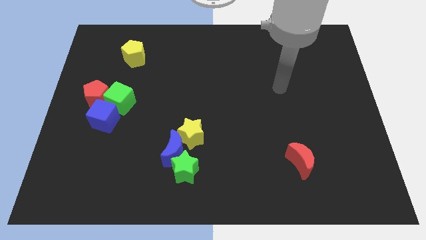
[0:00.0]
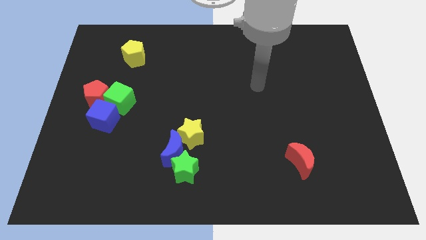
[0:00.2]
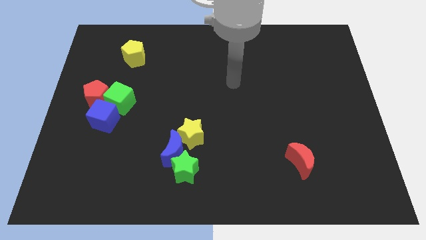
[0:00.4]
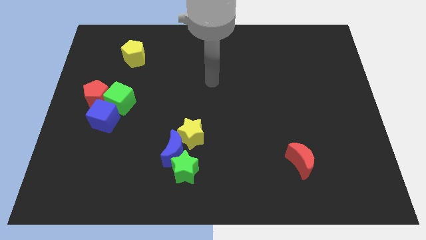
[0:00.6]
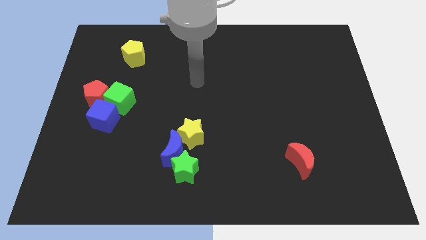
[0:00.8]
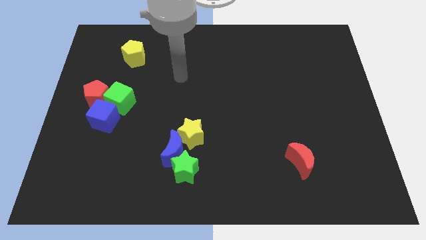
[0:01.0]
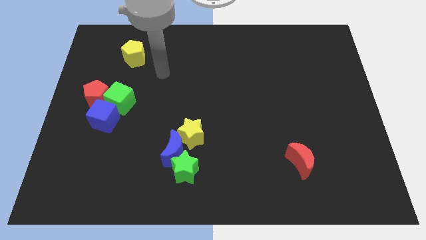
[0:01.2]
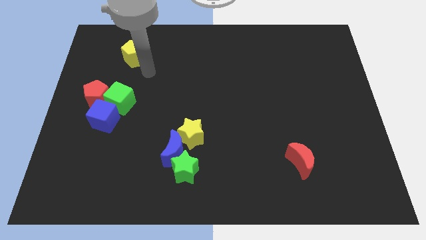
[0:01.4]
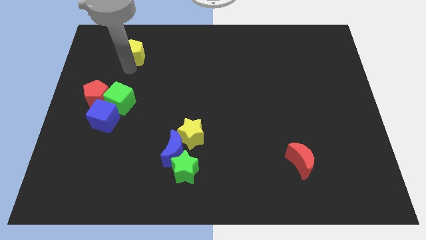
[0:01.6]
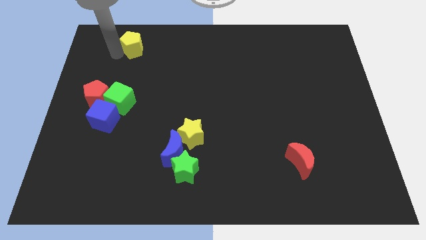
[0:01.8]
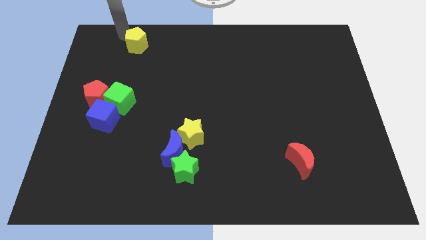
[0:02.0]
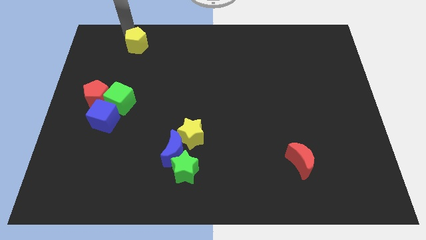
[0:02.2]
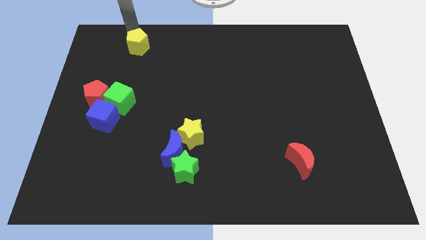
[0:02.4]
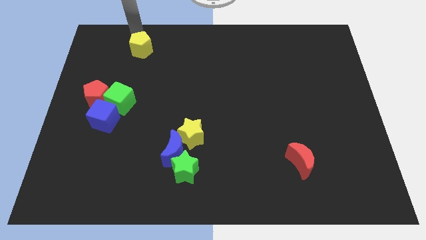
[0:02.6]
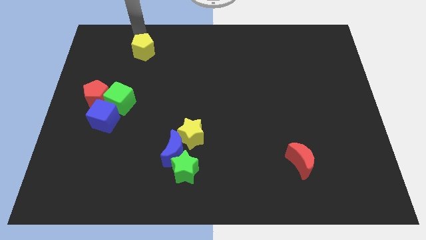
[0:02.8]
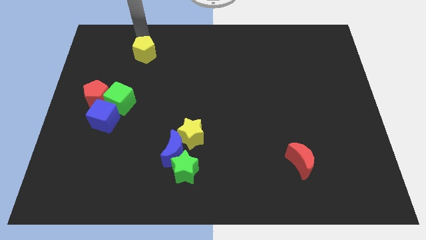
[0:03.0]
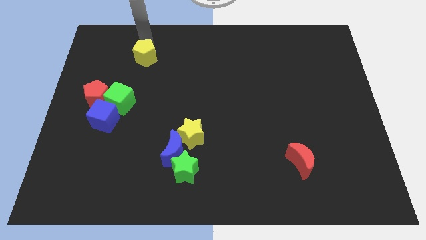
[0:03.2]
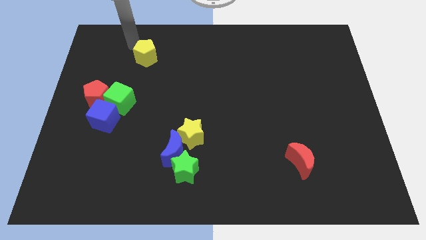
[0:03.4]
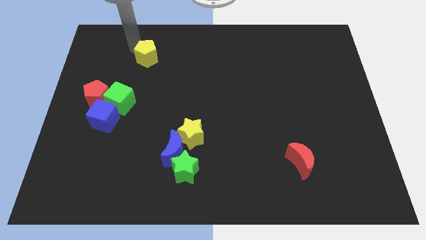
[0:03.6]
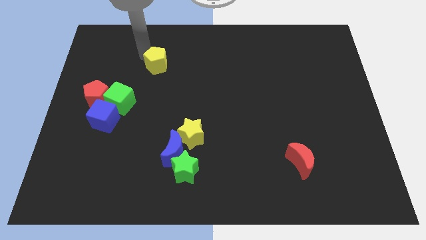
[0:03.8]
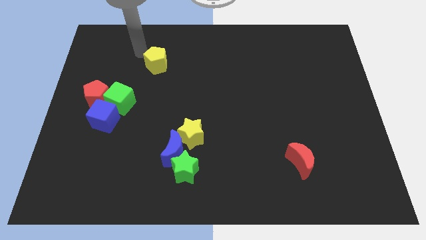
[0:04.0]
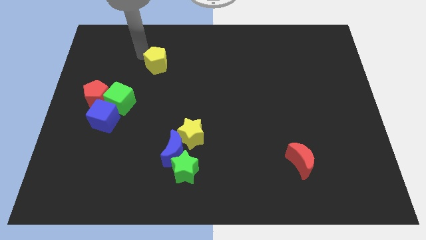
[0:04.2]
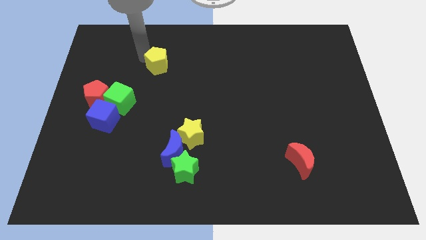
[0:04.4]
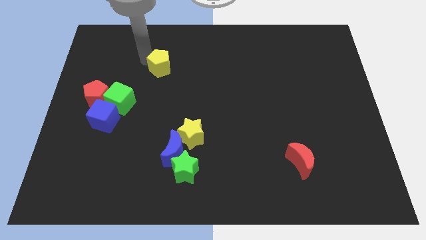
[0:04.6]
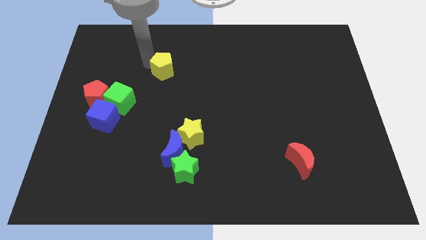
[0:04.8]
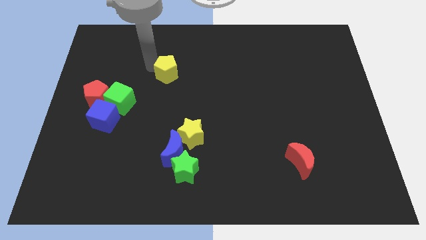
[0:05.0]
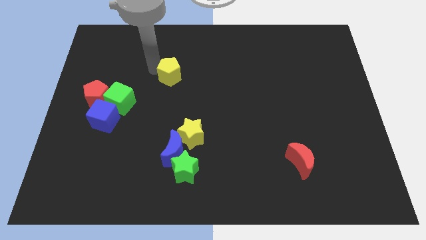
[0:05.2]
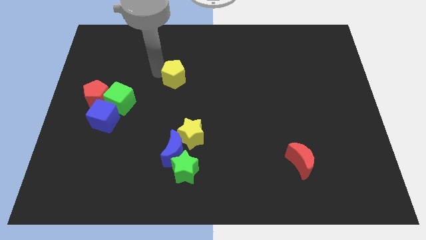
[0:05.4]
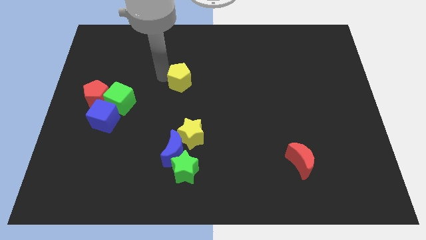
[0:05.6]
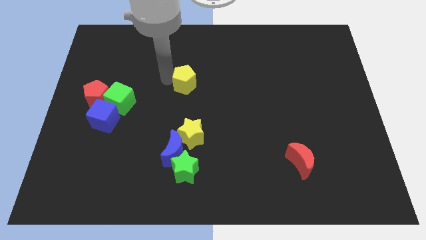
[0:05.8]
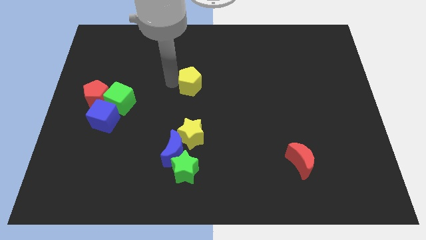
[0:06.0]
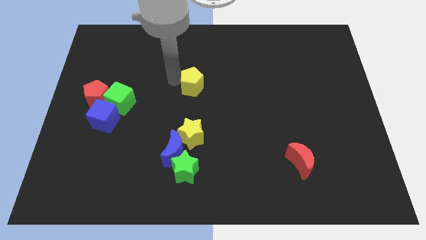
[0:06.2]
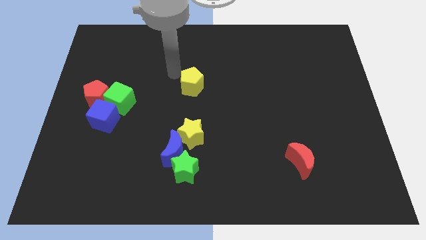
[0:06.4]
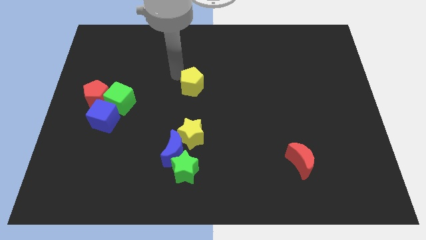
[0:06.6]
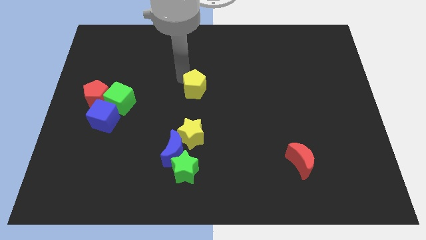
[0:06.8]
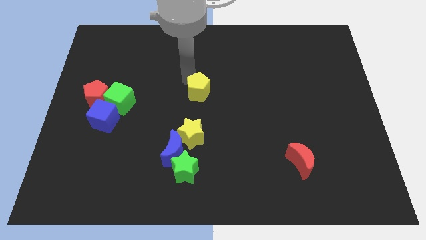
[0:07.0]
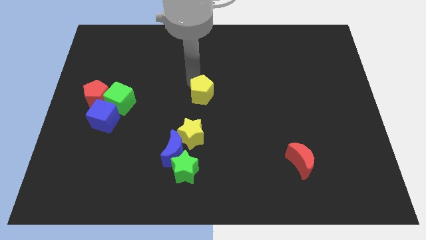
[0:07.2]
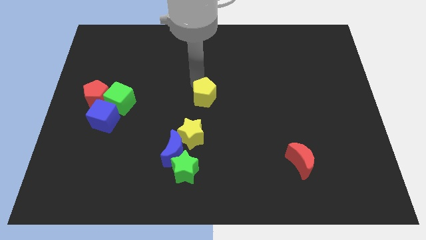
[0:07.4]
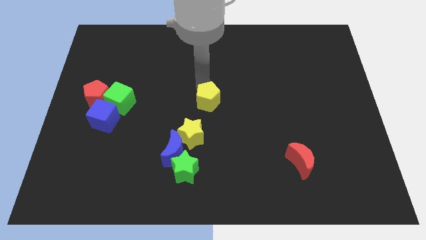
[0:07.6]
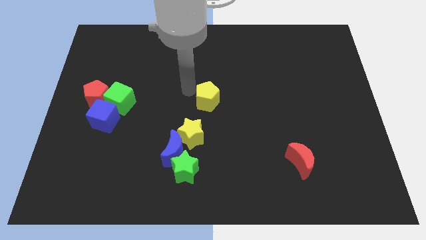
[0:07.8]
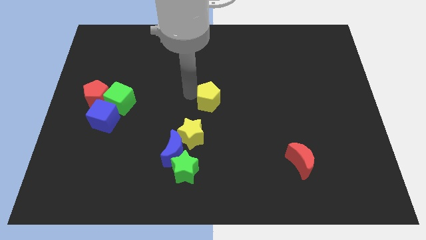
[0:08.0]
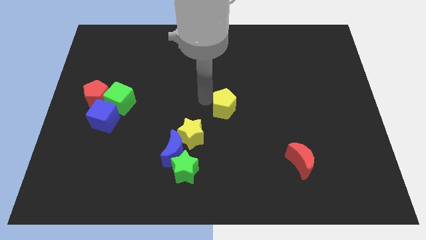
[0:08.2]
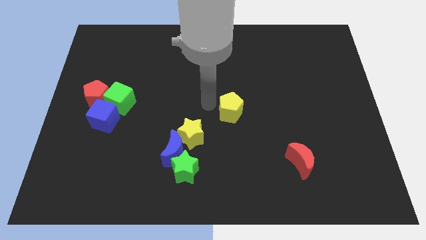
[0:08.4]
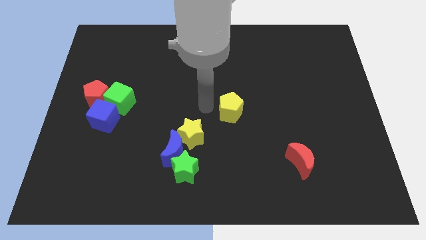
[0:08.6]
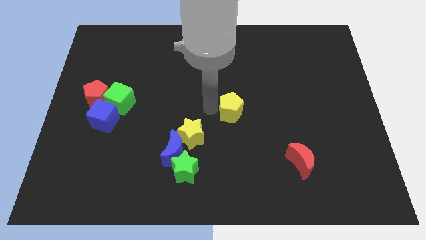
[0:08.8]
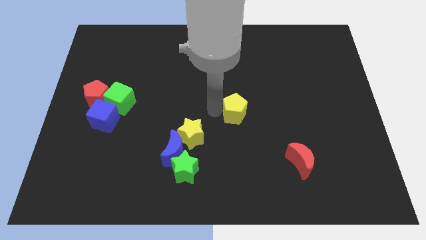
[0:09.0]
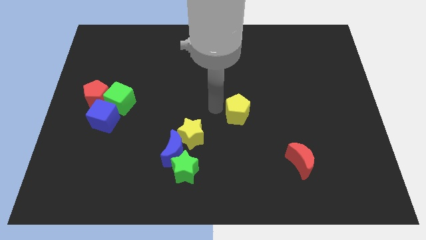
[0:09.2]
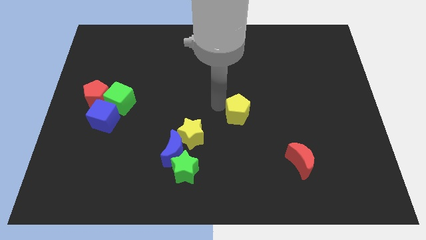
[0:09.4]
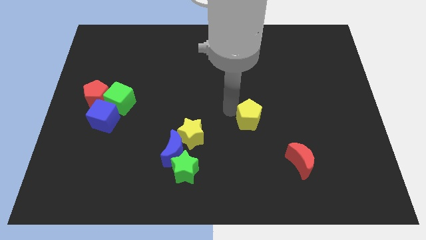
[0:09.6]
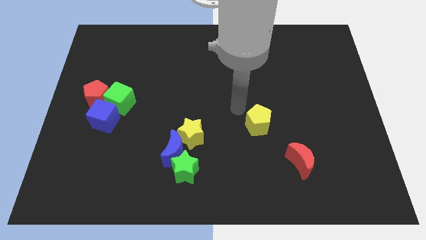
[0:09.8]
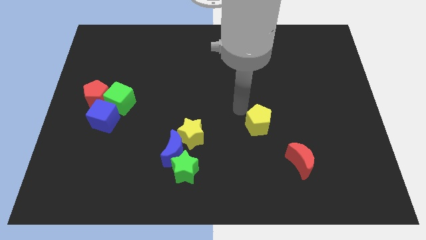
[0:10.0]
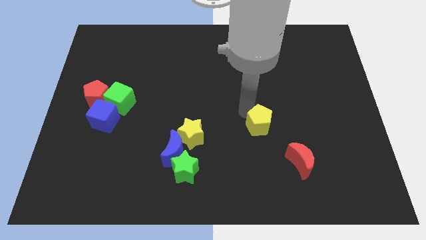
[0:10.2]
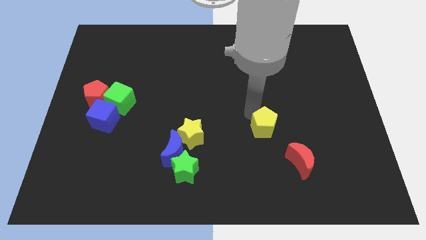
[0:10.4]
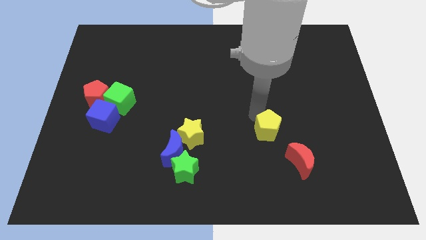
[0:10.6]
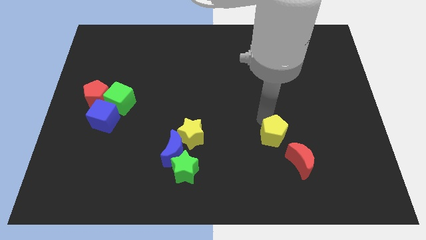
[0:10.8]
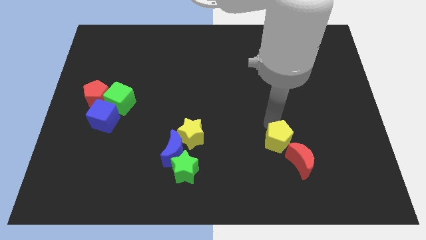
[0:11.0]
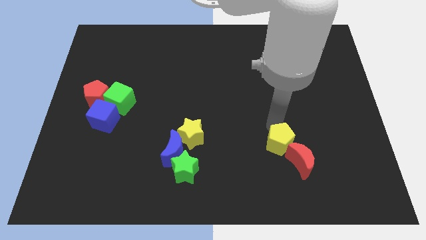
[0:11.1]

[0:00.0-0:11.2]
slide the yellow pentagon towards the red moon

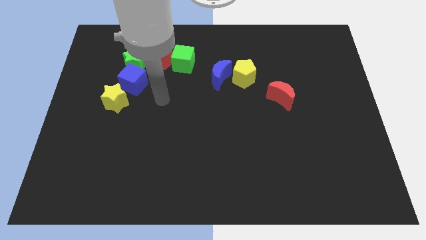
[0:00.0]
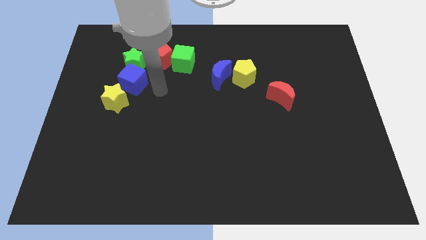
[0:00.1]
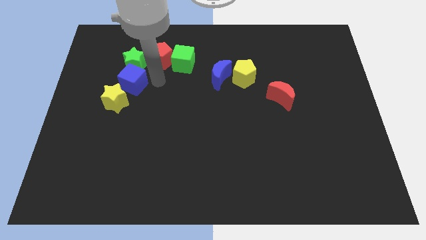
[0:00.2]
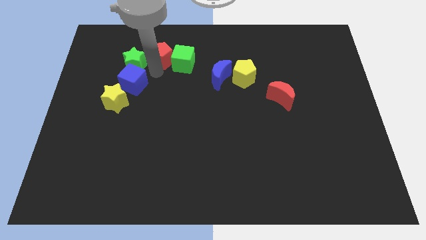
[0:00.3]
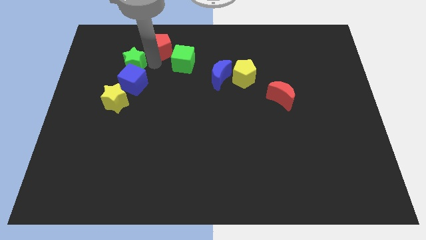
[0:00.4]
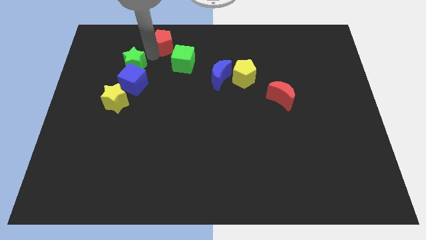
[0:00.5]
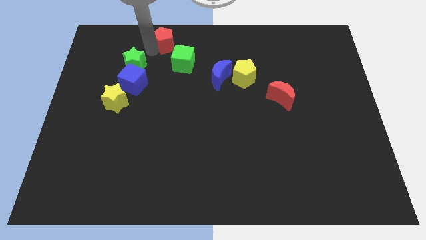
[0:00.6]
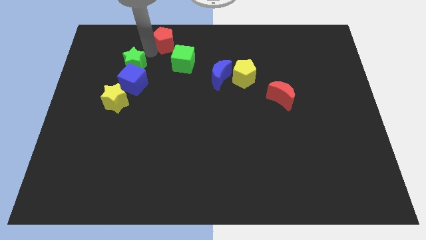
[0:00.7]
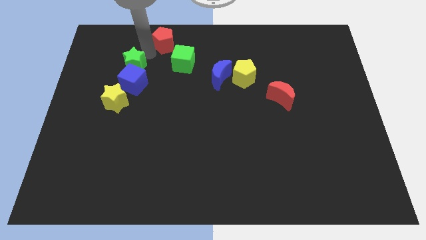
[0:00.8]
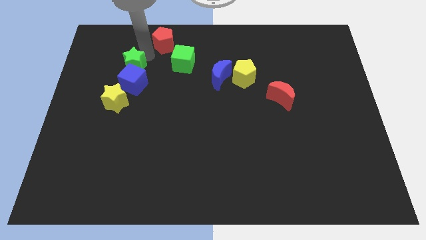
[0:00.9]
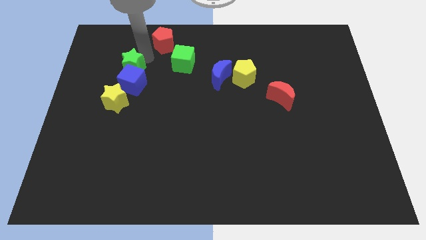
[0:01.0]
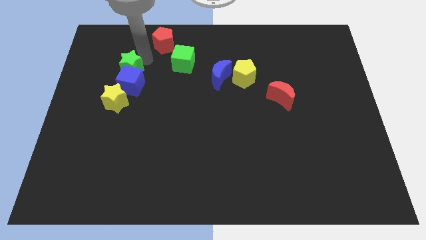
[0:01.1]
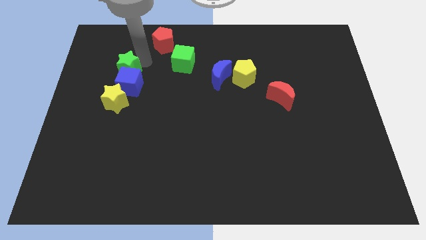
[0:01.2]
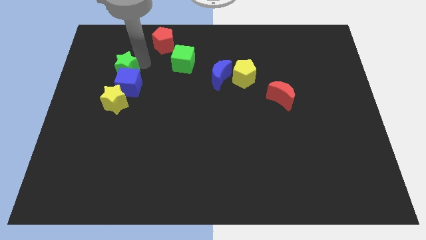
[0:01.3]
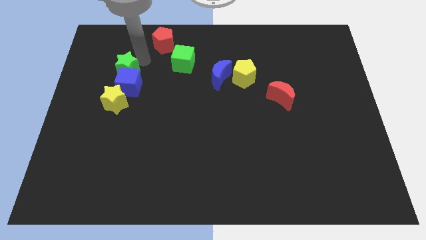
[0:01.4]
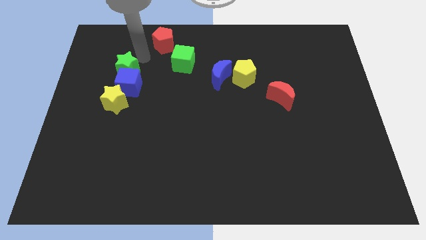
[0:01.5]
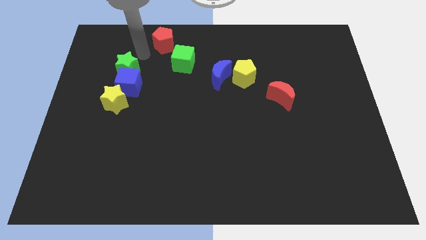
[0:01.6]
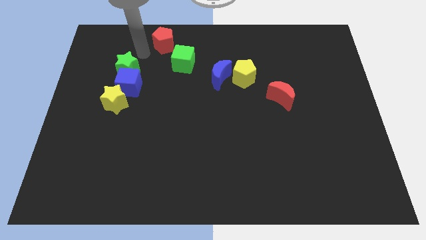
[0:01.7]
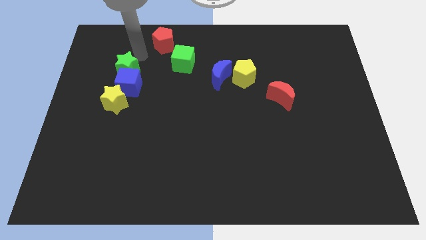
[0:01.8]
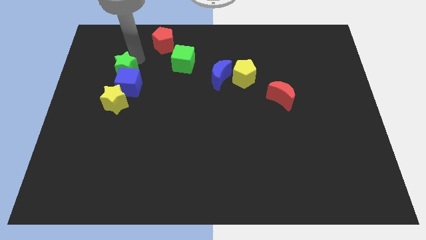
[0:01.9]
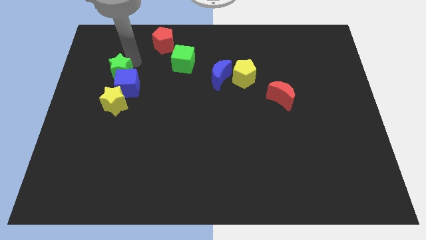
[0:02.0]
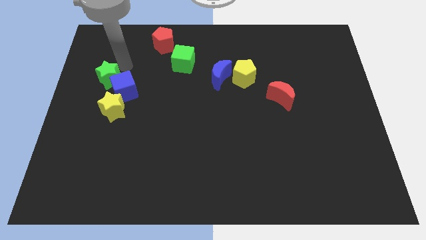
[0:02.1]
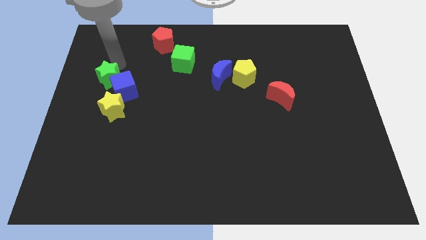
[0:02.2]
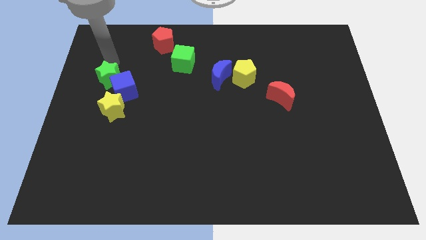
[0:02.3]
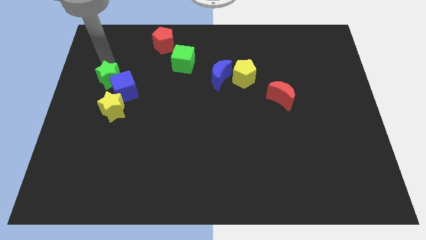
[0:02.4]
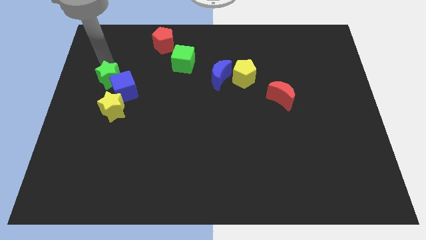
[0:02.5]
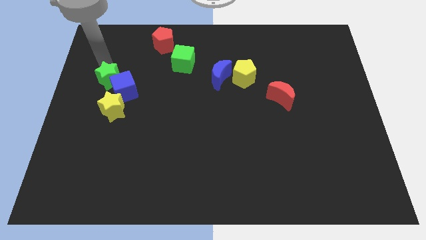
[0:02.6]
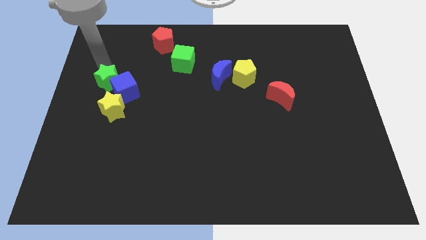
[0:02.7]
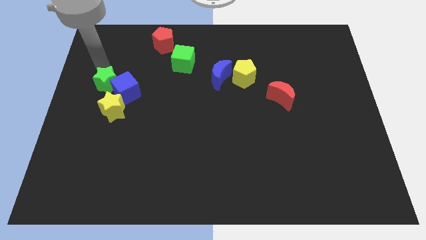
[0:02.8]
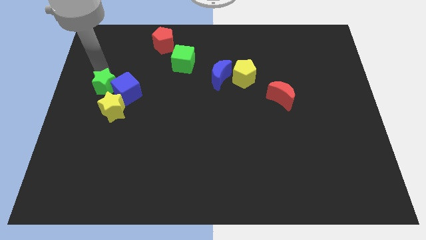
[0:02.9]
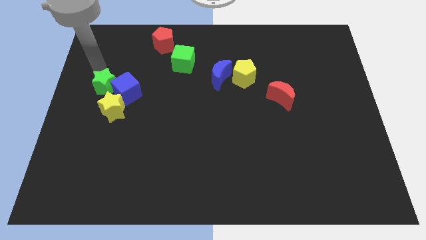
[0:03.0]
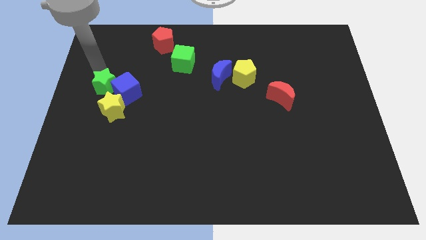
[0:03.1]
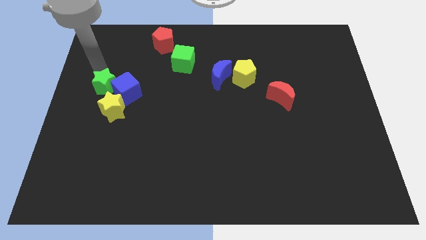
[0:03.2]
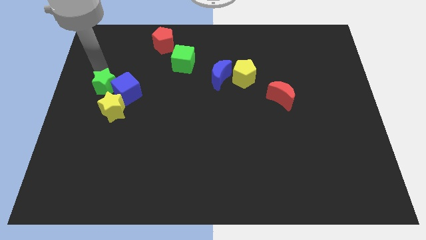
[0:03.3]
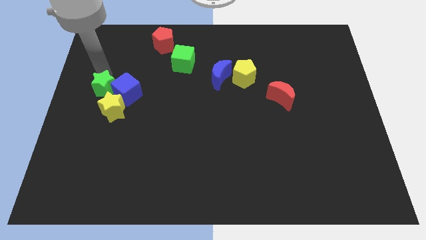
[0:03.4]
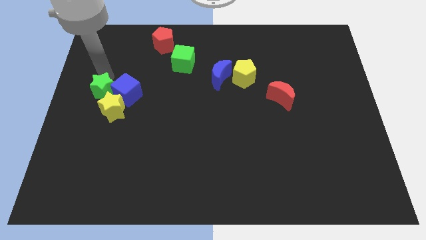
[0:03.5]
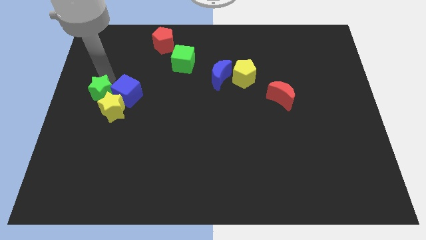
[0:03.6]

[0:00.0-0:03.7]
move the green star next to the yellow star
